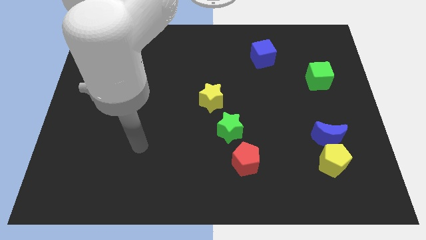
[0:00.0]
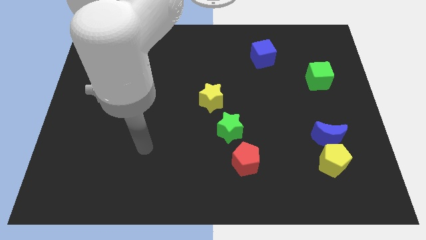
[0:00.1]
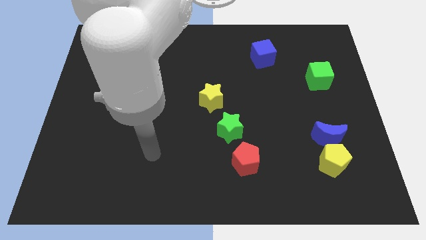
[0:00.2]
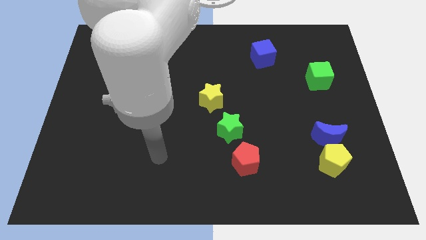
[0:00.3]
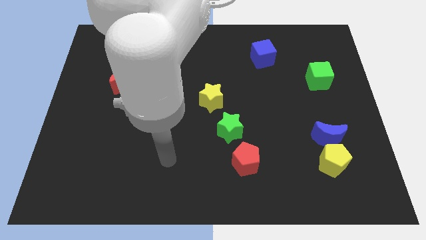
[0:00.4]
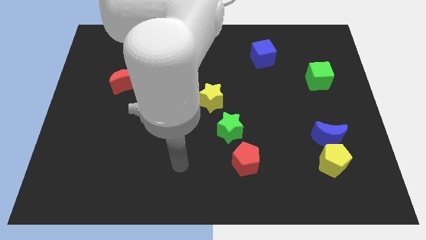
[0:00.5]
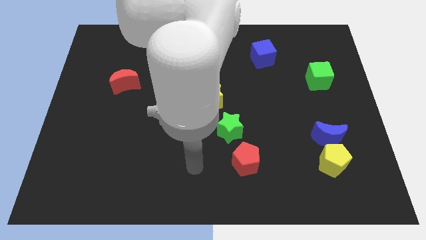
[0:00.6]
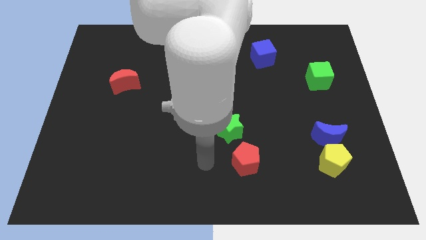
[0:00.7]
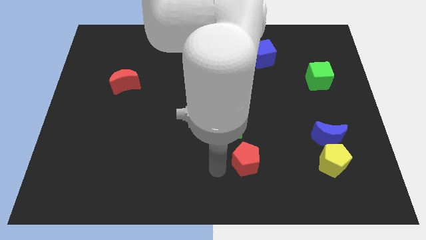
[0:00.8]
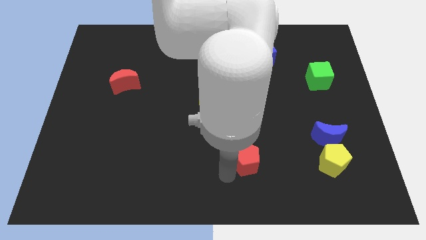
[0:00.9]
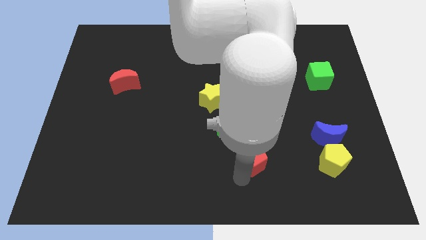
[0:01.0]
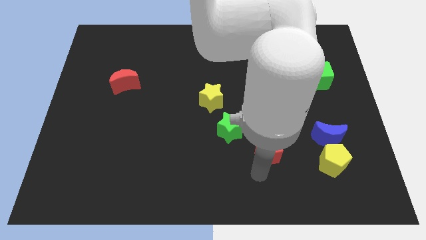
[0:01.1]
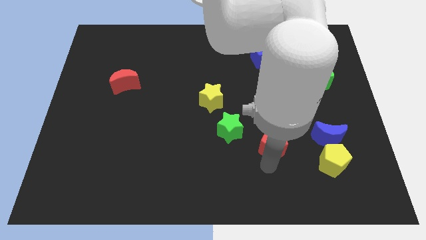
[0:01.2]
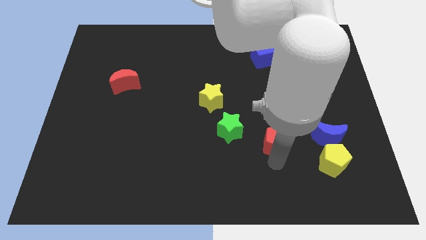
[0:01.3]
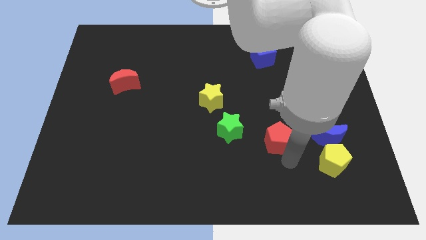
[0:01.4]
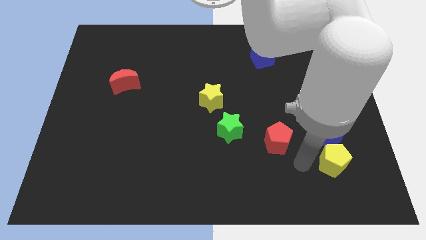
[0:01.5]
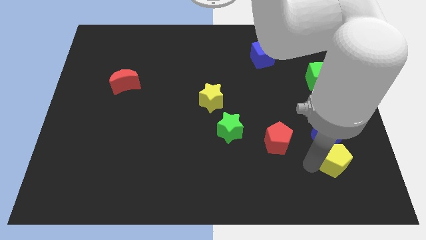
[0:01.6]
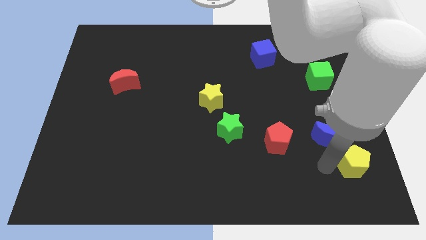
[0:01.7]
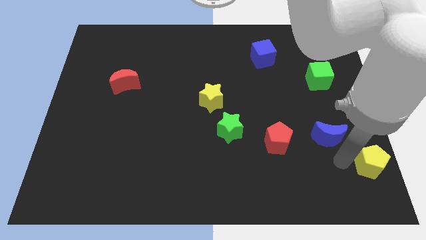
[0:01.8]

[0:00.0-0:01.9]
separate the blue moon from the yellow pentagon

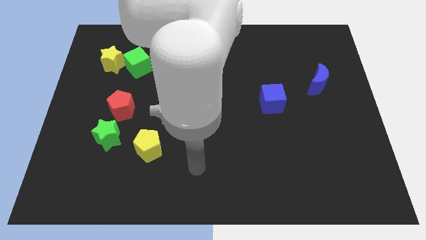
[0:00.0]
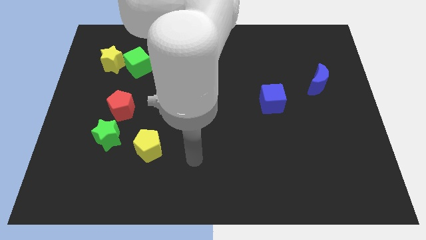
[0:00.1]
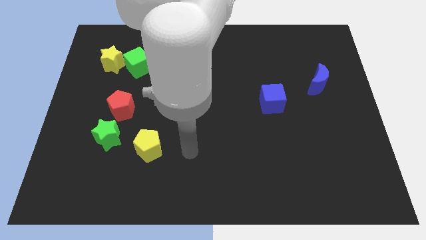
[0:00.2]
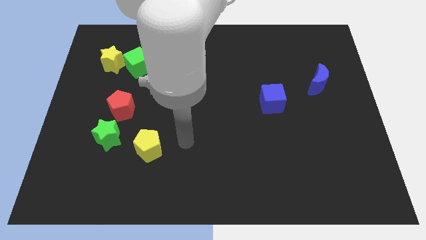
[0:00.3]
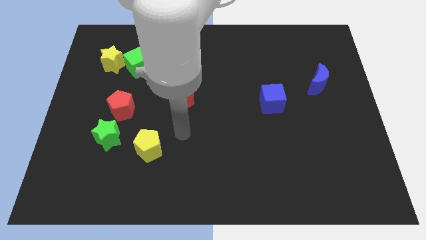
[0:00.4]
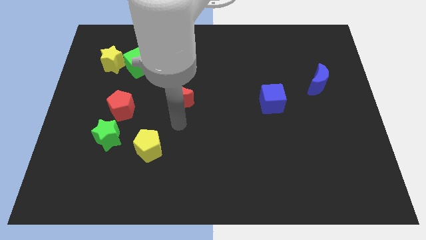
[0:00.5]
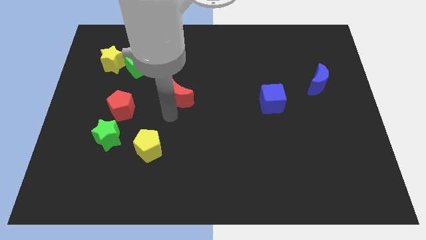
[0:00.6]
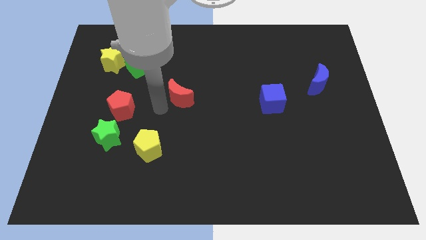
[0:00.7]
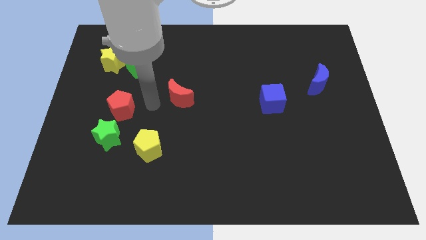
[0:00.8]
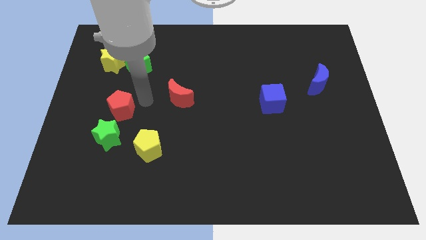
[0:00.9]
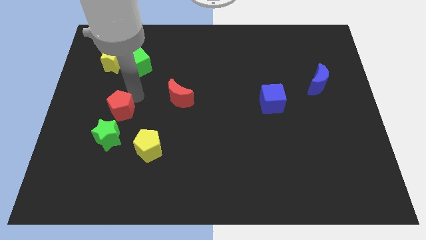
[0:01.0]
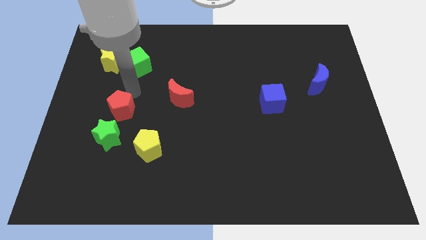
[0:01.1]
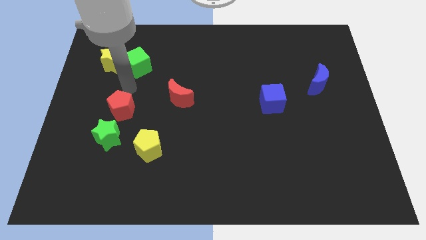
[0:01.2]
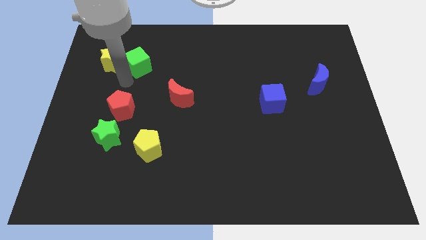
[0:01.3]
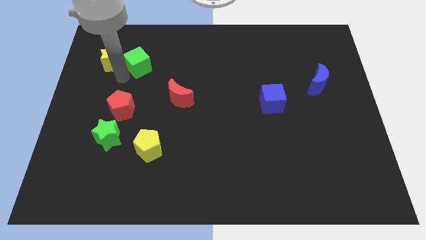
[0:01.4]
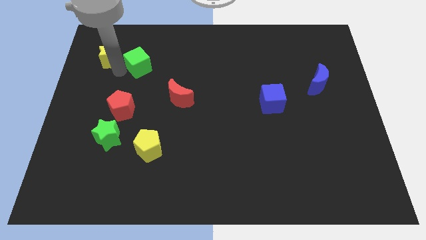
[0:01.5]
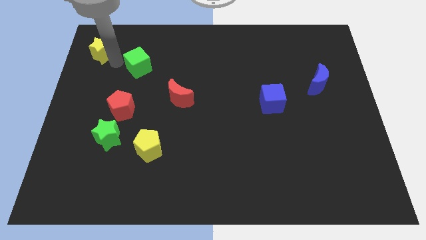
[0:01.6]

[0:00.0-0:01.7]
separate the green cube from the yellow star

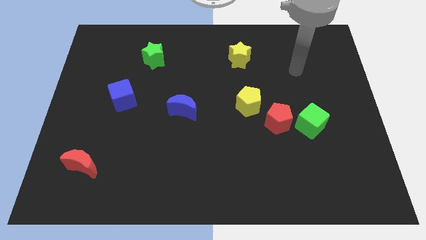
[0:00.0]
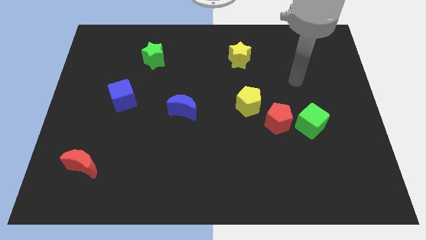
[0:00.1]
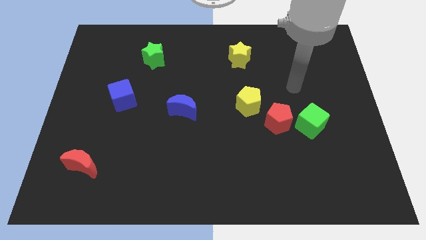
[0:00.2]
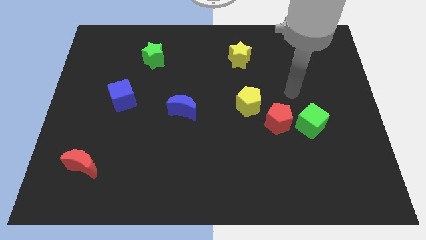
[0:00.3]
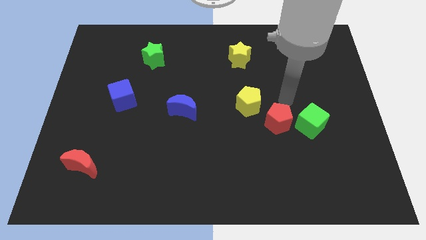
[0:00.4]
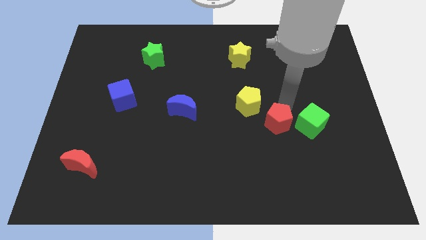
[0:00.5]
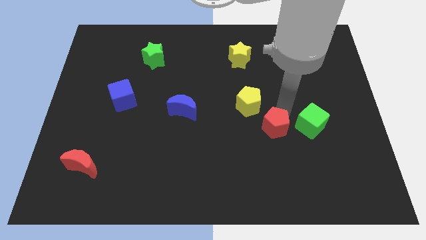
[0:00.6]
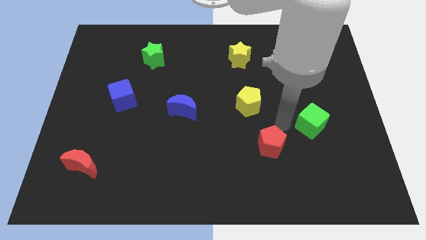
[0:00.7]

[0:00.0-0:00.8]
pull the green cube apart from the red pentagon

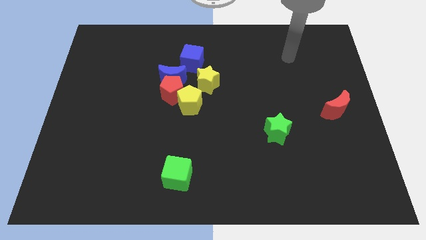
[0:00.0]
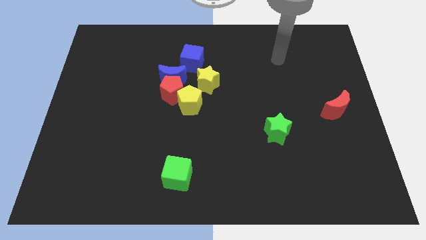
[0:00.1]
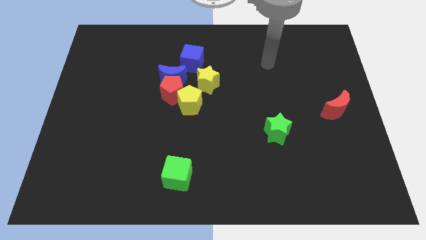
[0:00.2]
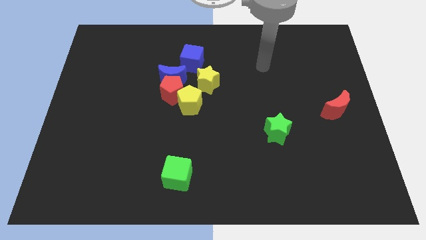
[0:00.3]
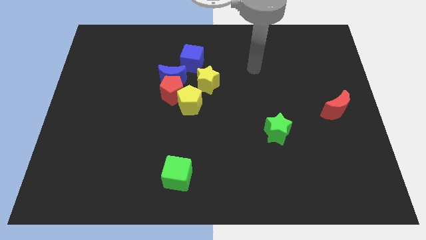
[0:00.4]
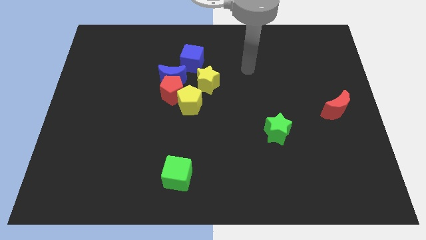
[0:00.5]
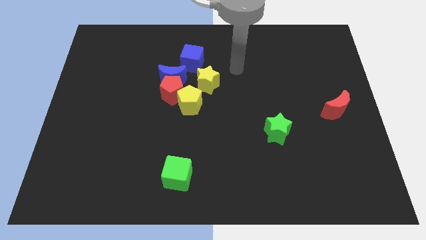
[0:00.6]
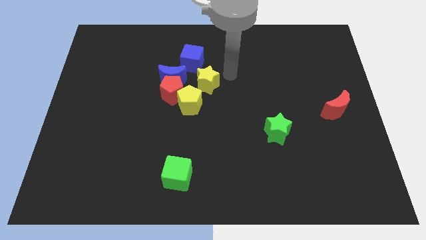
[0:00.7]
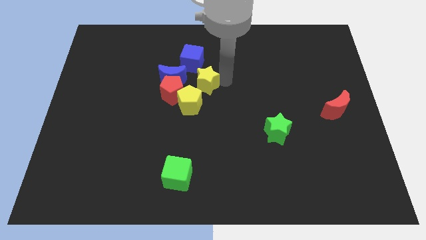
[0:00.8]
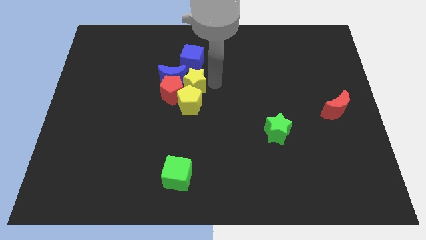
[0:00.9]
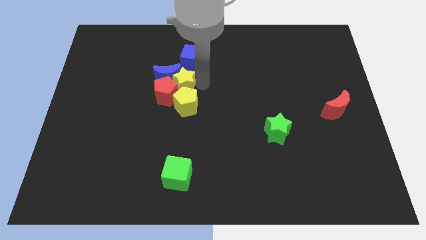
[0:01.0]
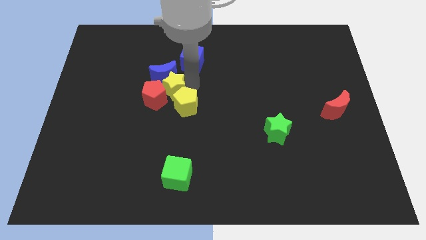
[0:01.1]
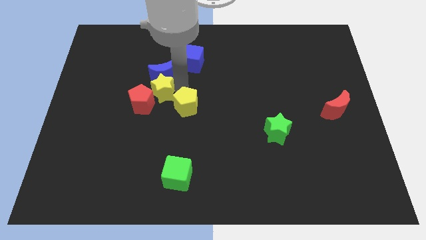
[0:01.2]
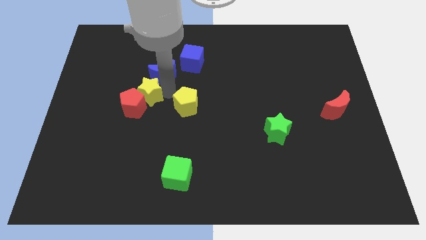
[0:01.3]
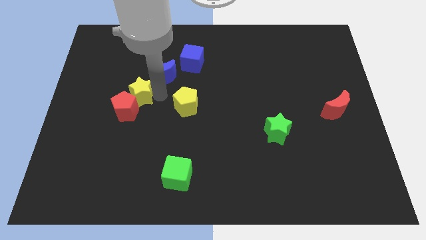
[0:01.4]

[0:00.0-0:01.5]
pull the red pentagon apart from the blue moon, yellow pentagon, and yellow star

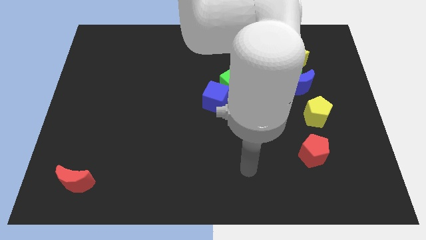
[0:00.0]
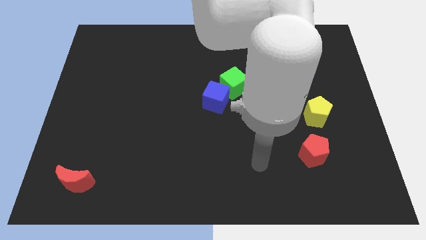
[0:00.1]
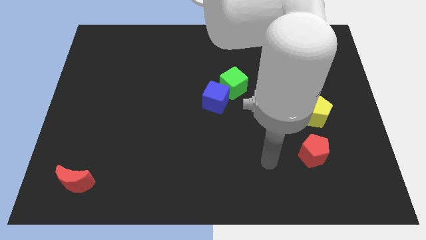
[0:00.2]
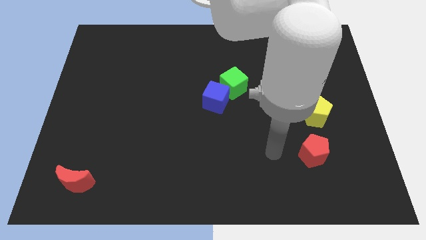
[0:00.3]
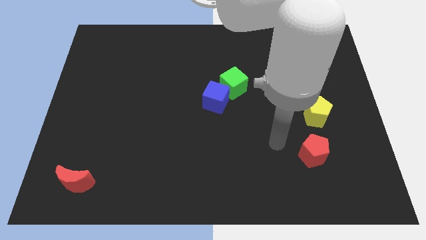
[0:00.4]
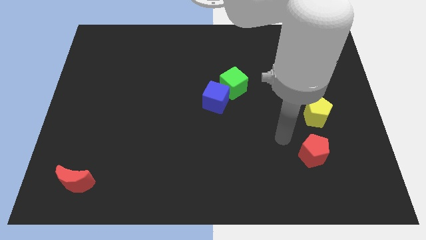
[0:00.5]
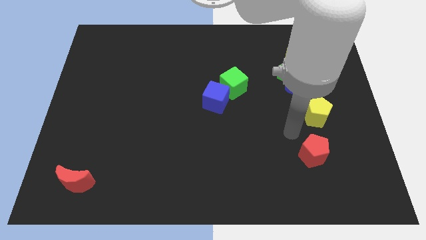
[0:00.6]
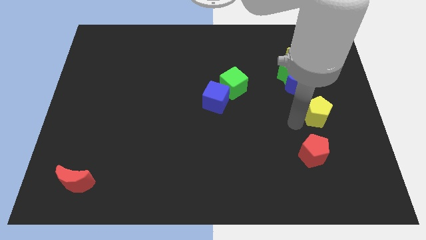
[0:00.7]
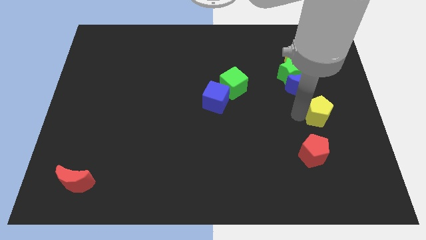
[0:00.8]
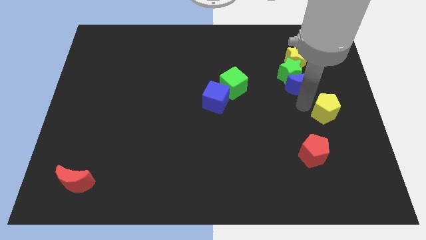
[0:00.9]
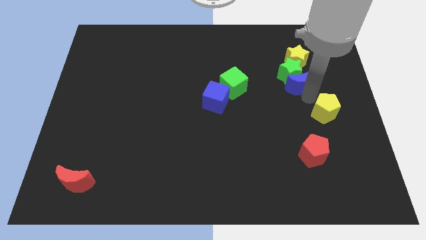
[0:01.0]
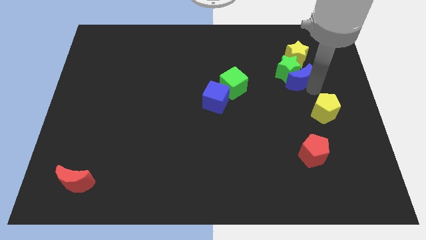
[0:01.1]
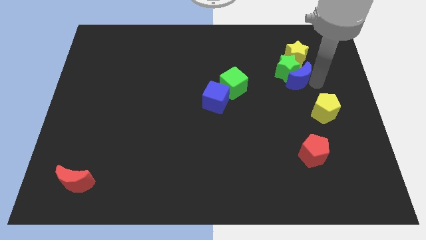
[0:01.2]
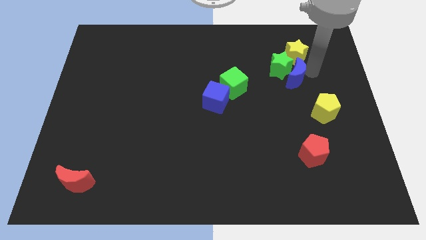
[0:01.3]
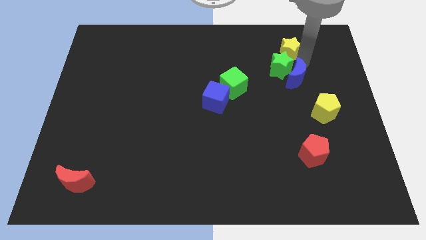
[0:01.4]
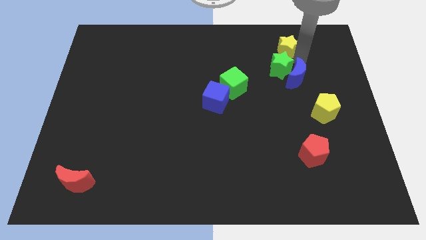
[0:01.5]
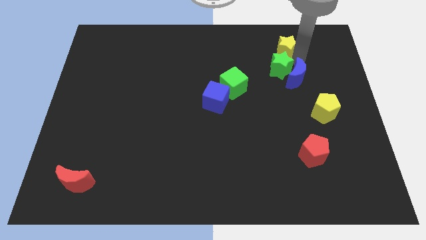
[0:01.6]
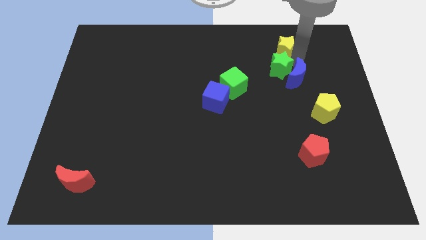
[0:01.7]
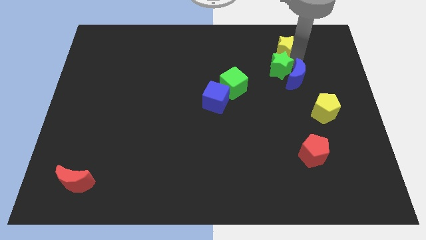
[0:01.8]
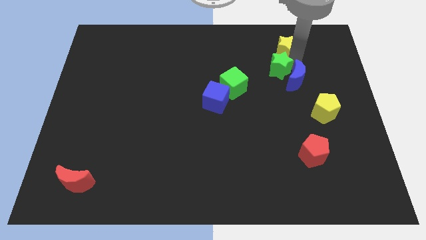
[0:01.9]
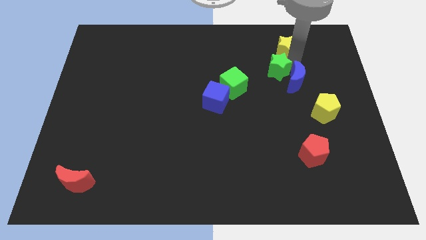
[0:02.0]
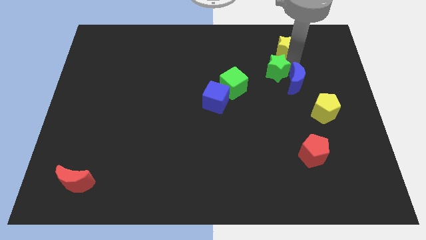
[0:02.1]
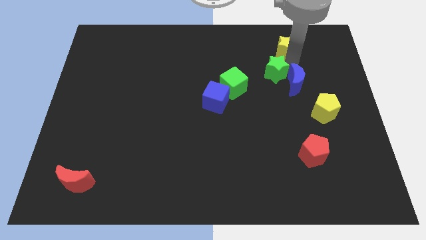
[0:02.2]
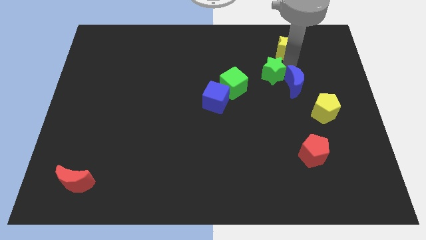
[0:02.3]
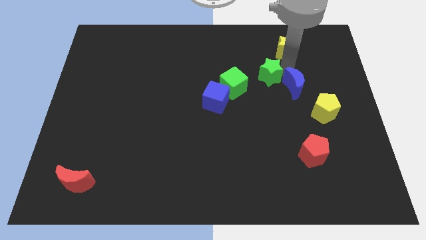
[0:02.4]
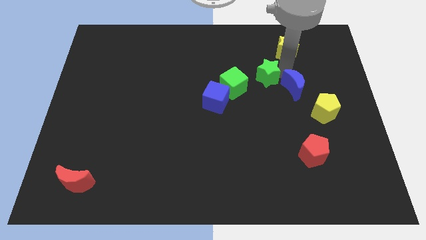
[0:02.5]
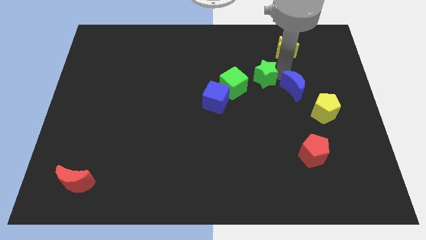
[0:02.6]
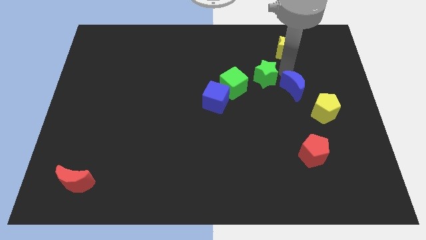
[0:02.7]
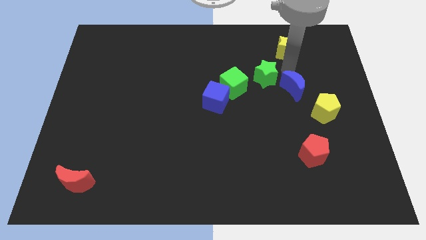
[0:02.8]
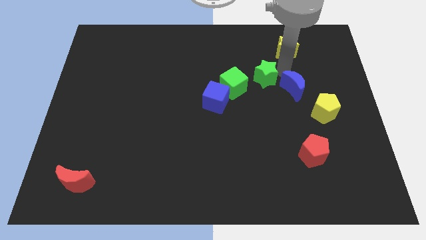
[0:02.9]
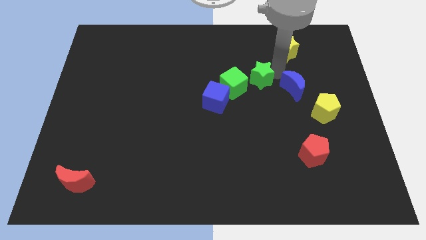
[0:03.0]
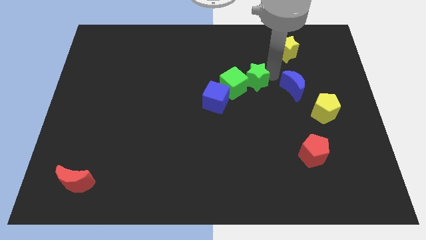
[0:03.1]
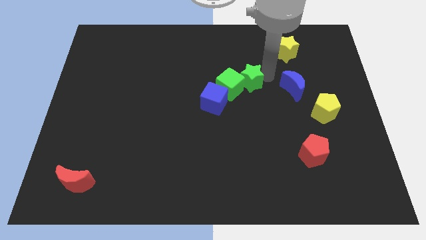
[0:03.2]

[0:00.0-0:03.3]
separate the green star from the blue moon and yellow star

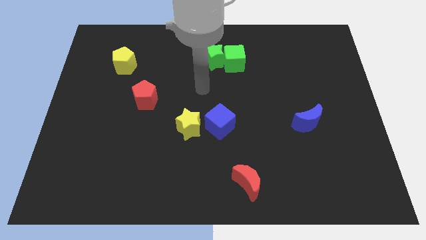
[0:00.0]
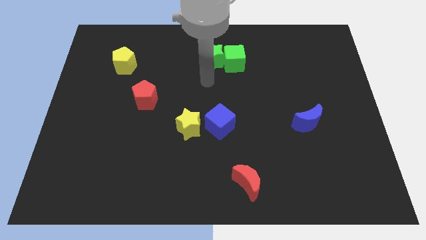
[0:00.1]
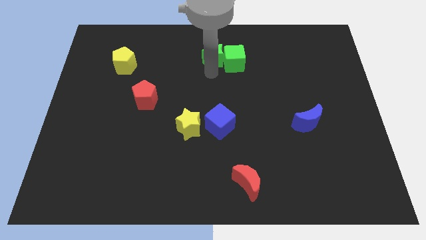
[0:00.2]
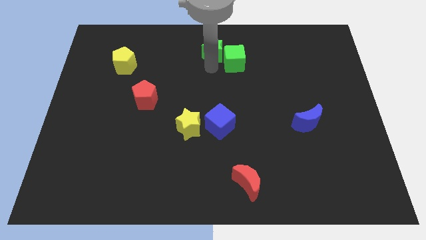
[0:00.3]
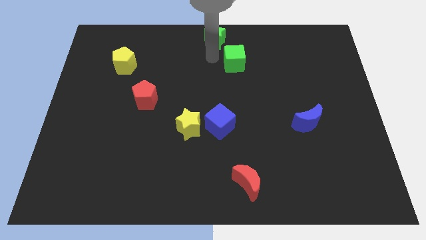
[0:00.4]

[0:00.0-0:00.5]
separate the green cube from the green star
